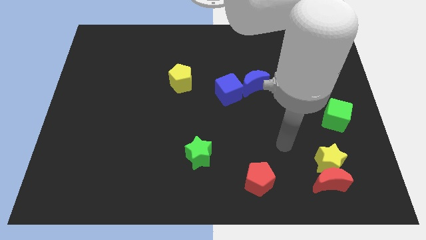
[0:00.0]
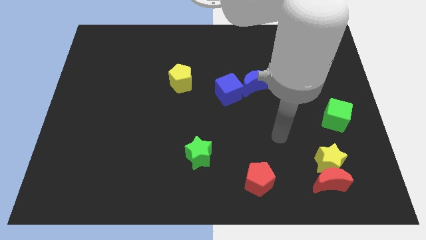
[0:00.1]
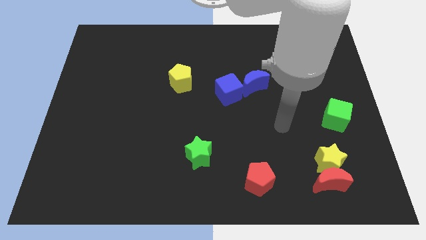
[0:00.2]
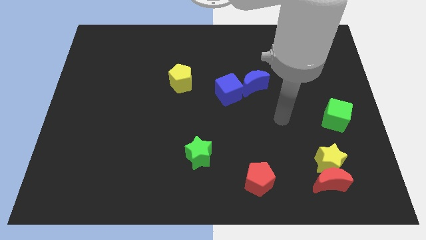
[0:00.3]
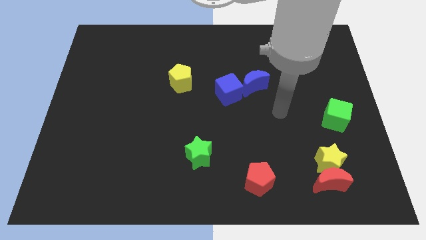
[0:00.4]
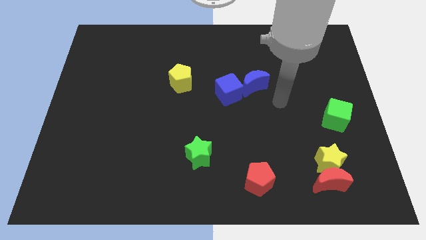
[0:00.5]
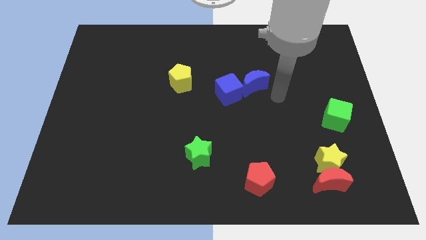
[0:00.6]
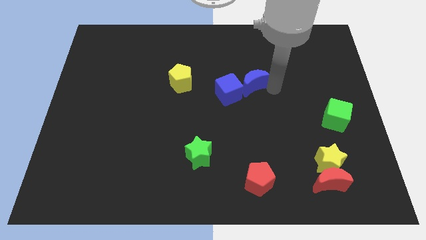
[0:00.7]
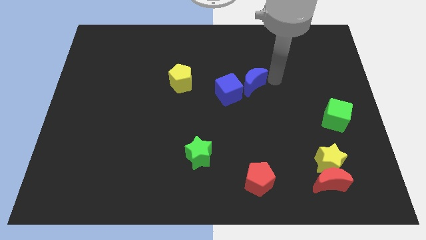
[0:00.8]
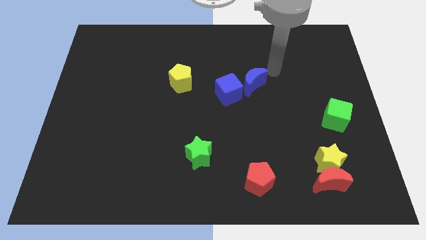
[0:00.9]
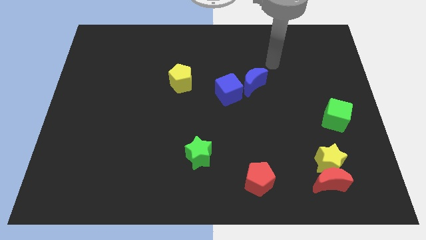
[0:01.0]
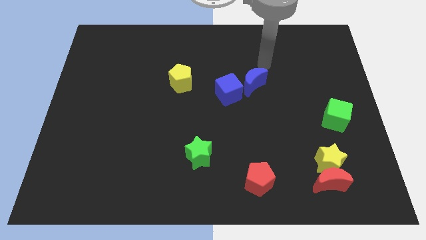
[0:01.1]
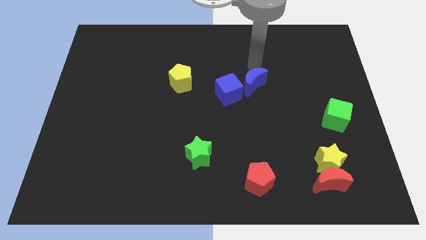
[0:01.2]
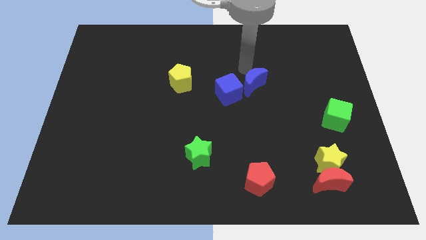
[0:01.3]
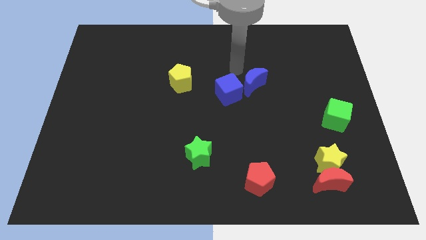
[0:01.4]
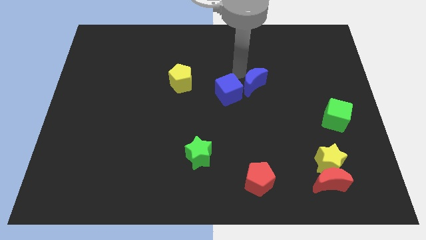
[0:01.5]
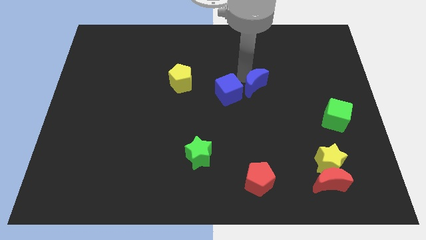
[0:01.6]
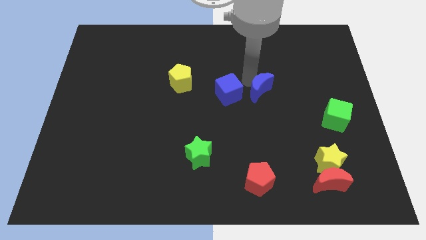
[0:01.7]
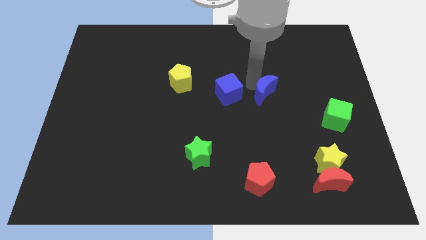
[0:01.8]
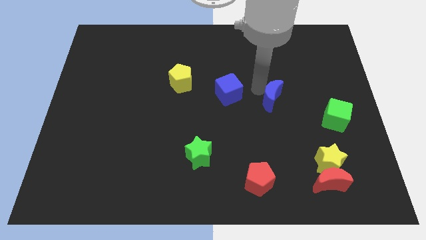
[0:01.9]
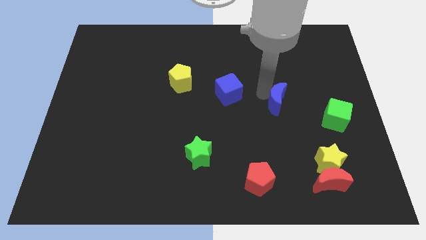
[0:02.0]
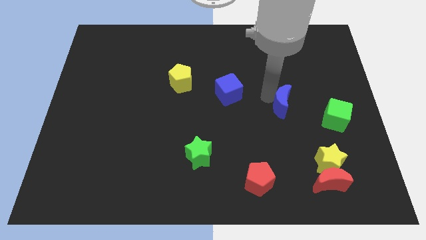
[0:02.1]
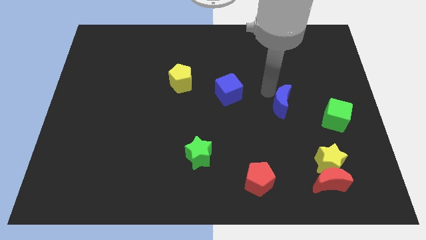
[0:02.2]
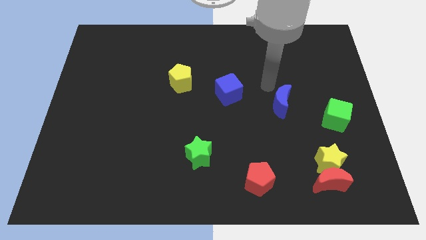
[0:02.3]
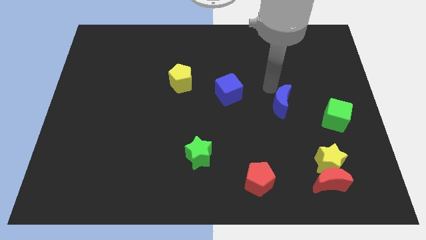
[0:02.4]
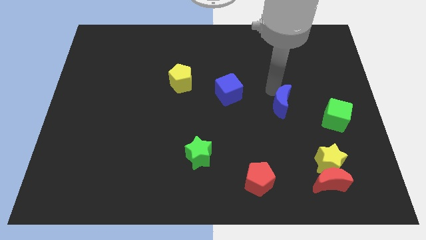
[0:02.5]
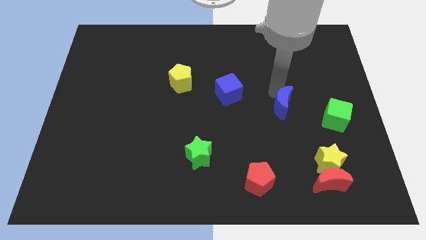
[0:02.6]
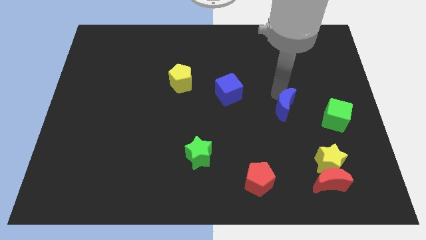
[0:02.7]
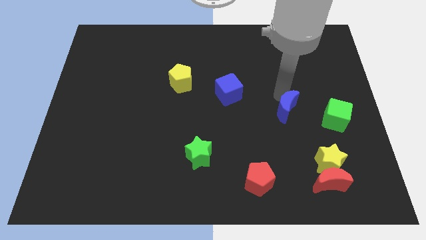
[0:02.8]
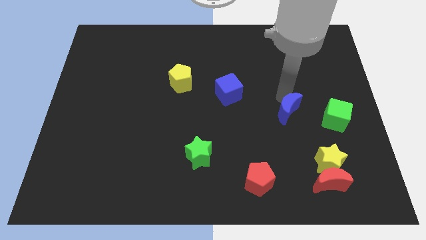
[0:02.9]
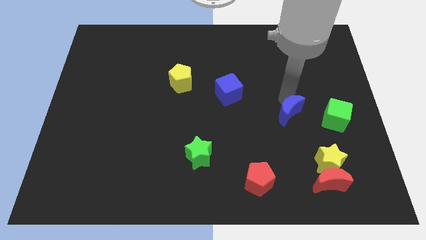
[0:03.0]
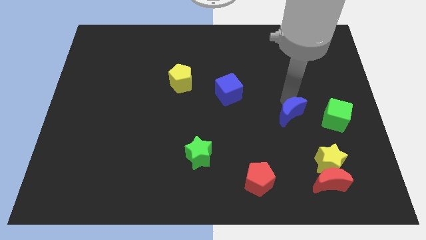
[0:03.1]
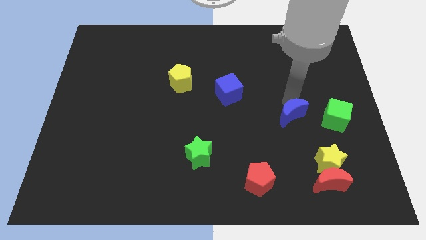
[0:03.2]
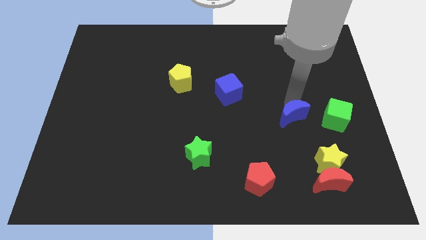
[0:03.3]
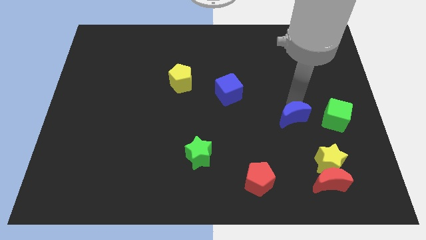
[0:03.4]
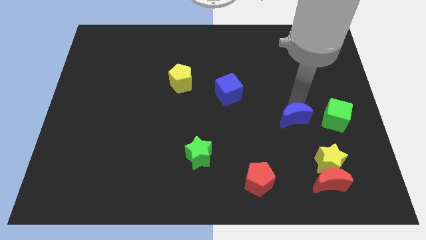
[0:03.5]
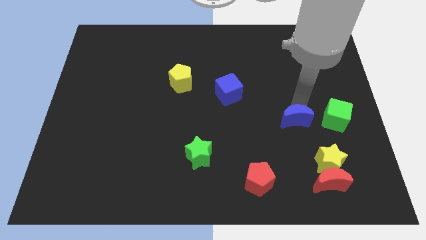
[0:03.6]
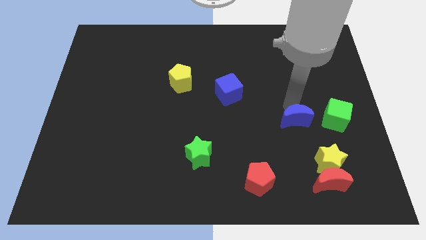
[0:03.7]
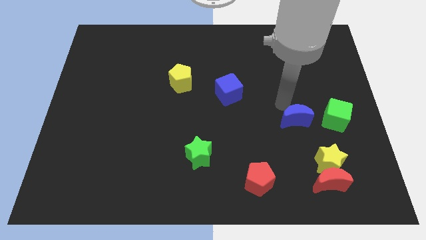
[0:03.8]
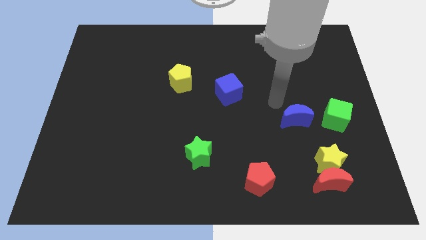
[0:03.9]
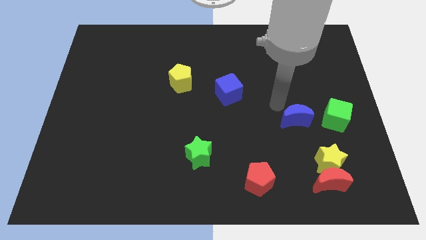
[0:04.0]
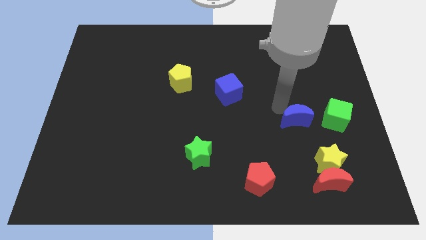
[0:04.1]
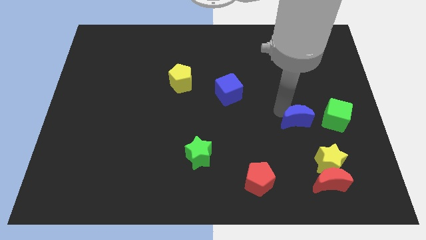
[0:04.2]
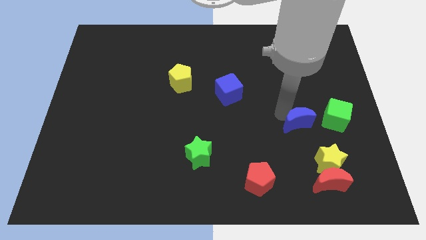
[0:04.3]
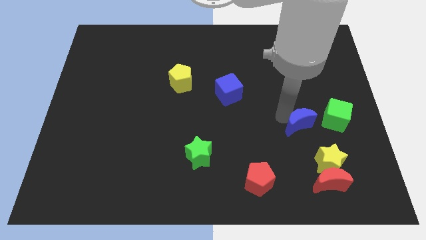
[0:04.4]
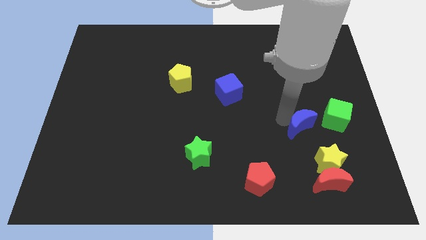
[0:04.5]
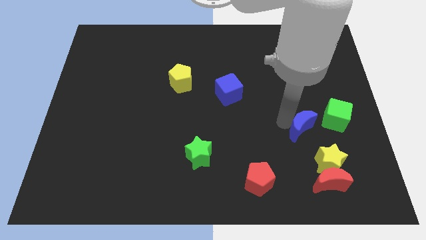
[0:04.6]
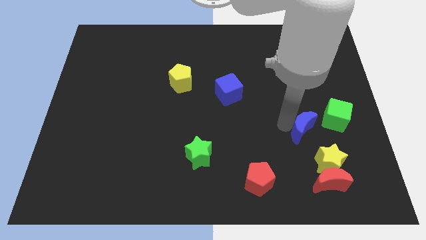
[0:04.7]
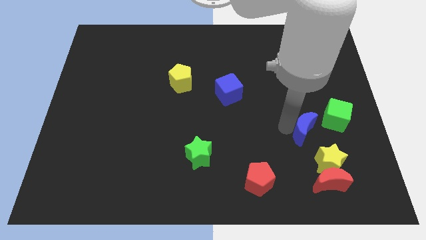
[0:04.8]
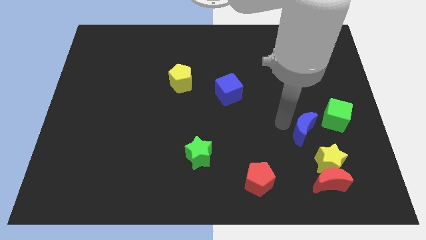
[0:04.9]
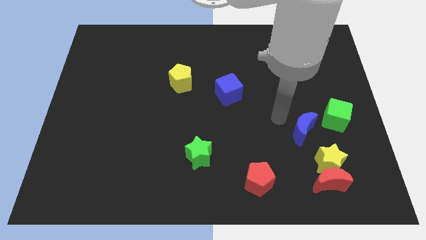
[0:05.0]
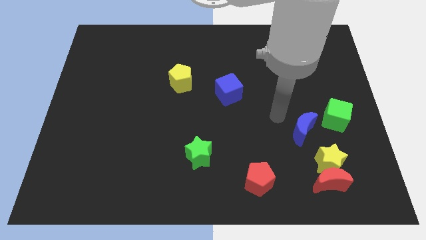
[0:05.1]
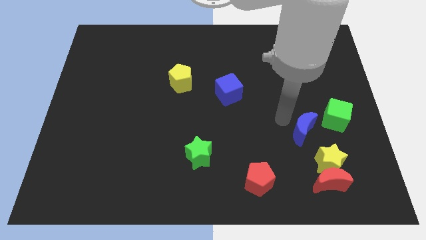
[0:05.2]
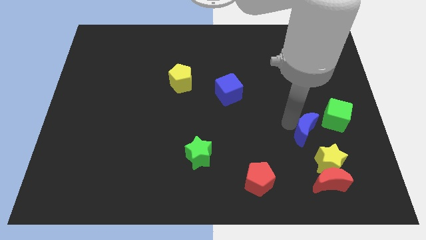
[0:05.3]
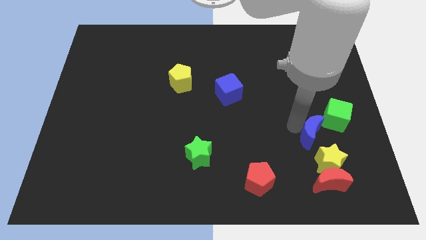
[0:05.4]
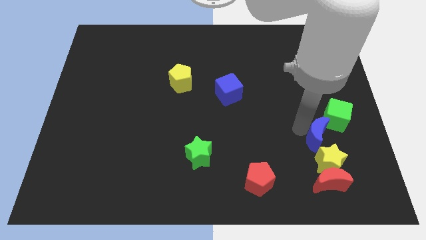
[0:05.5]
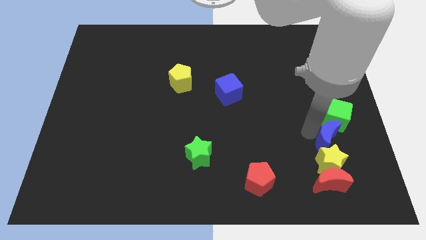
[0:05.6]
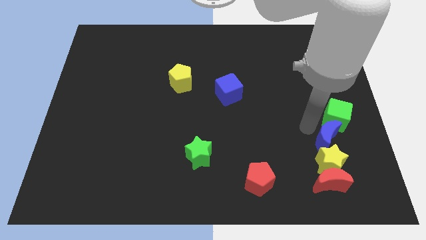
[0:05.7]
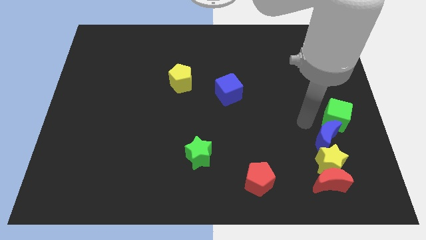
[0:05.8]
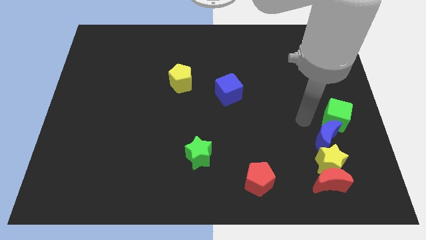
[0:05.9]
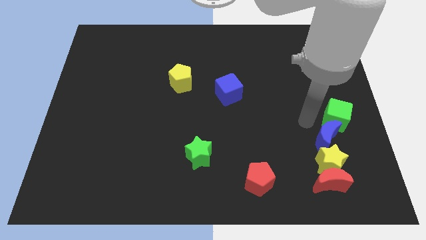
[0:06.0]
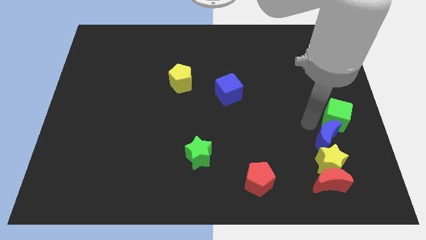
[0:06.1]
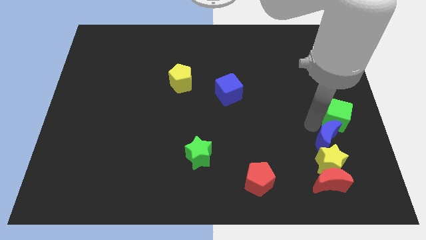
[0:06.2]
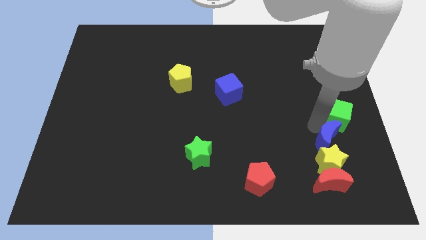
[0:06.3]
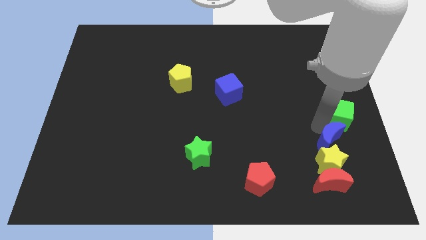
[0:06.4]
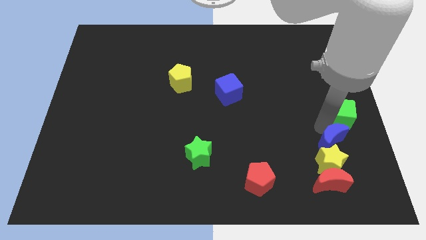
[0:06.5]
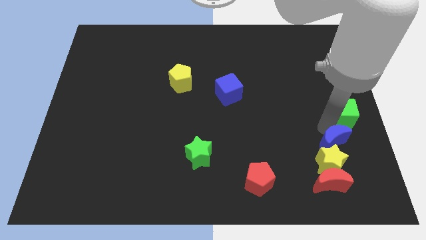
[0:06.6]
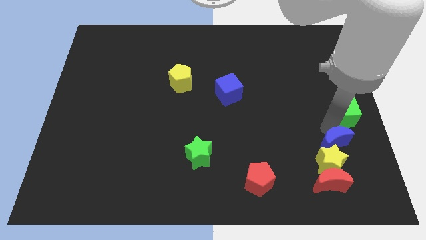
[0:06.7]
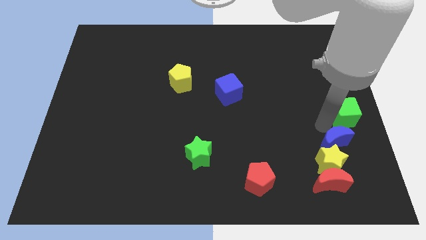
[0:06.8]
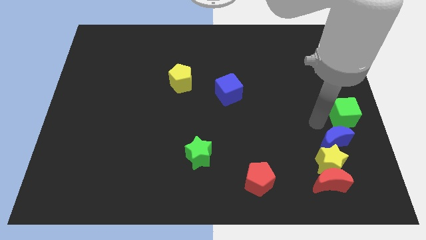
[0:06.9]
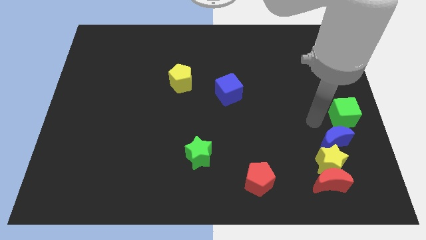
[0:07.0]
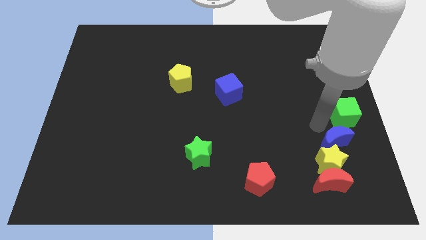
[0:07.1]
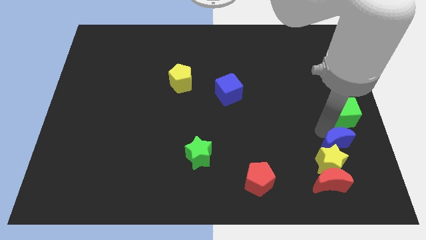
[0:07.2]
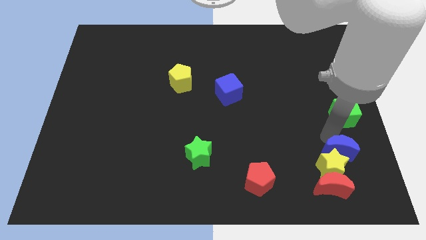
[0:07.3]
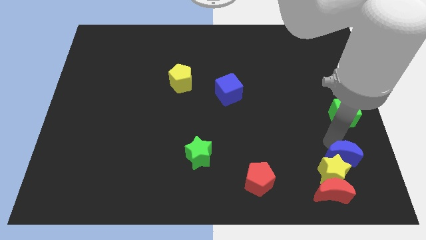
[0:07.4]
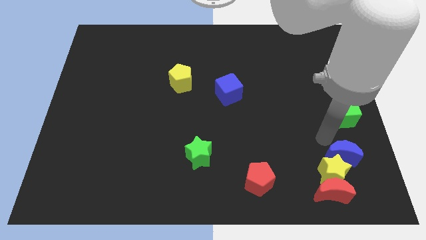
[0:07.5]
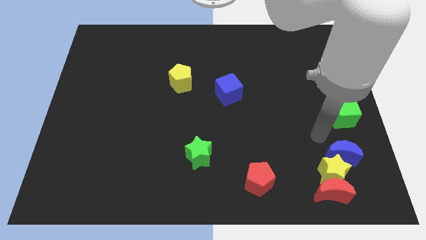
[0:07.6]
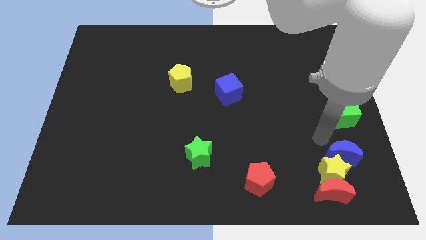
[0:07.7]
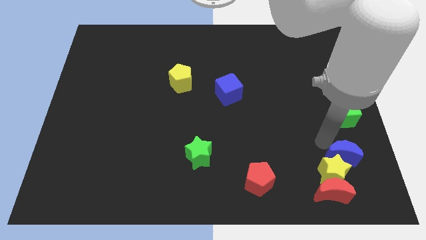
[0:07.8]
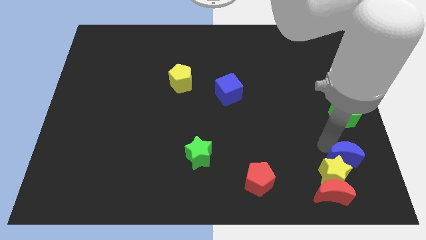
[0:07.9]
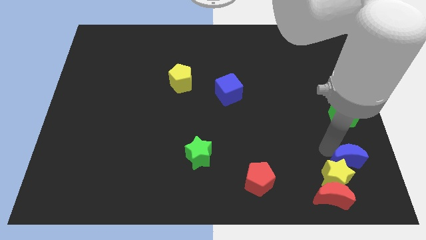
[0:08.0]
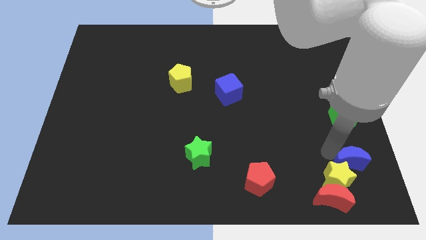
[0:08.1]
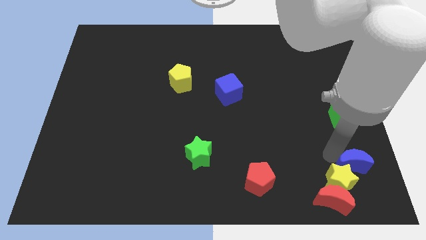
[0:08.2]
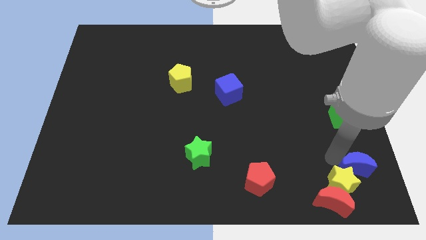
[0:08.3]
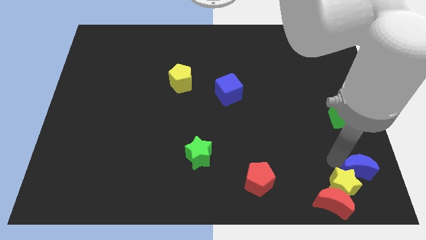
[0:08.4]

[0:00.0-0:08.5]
move the blue moon to the bottom right
